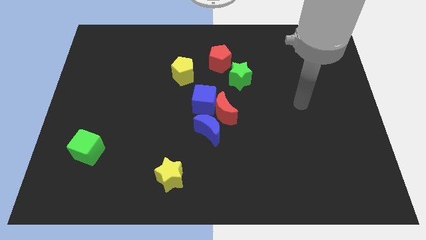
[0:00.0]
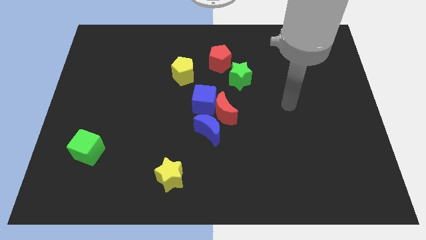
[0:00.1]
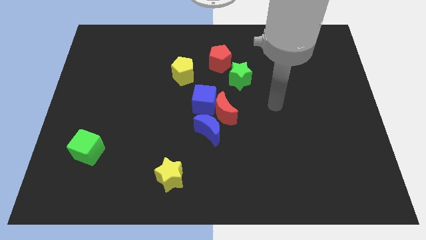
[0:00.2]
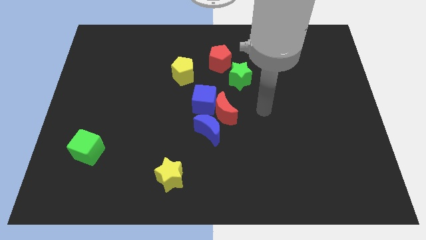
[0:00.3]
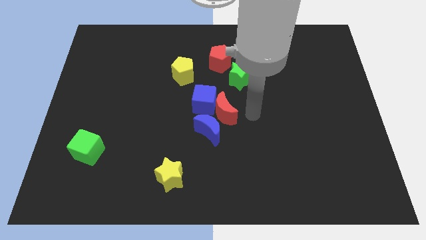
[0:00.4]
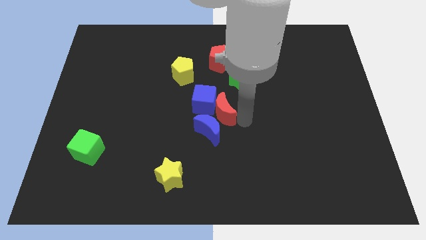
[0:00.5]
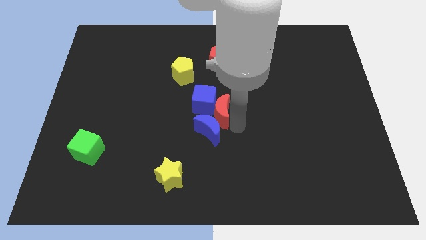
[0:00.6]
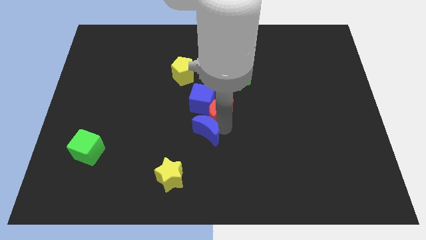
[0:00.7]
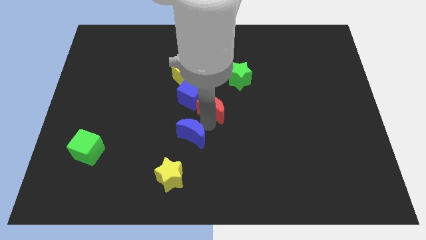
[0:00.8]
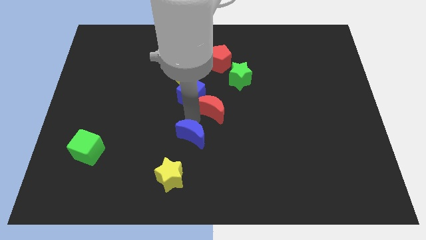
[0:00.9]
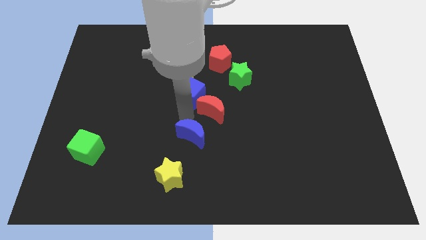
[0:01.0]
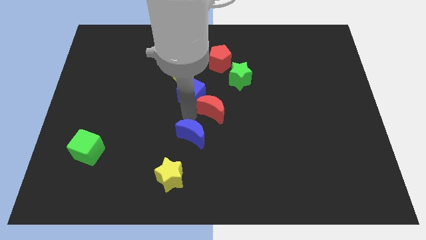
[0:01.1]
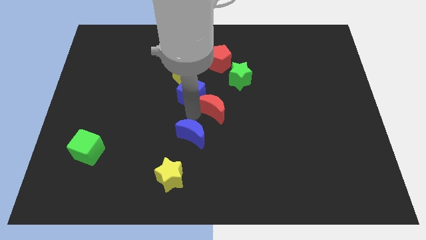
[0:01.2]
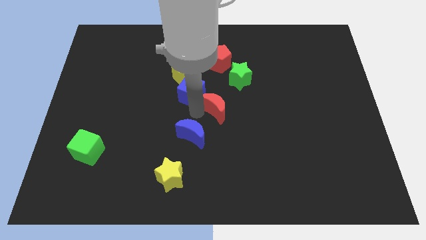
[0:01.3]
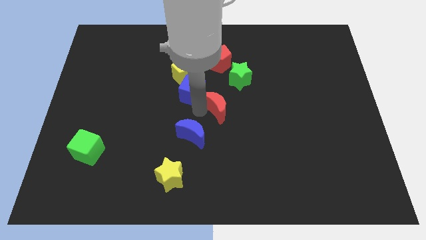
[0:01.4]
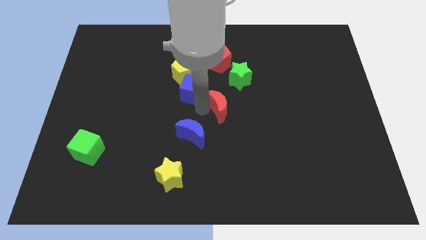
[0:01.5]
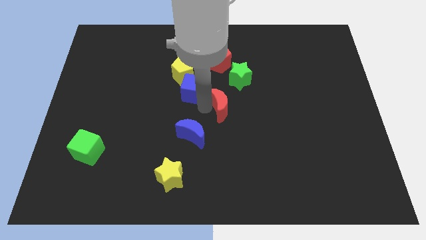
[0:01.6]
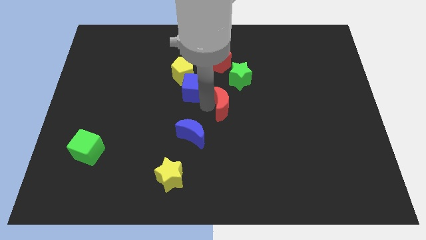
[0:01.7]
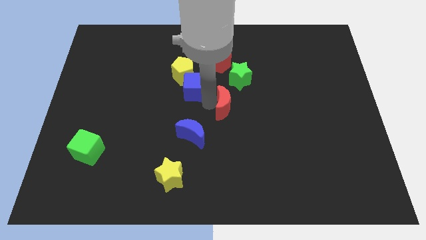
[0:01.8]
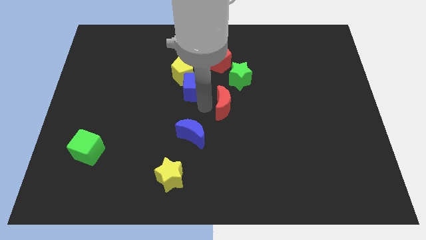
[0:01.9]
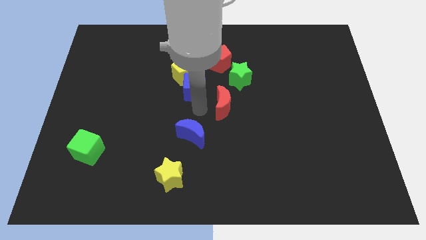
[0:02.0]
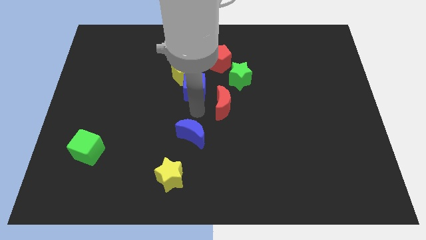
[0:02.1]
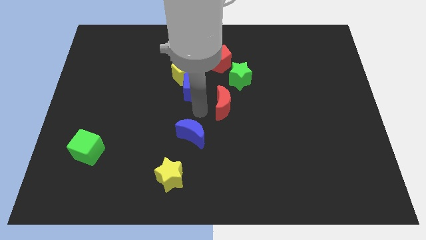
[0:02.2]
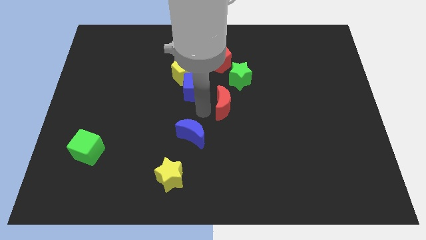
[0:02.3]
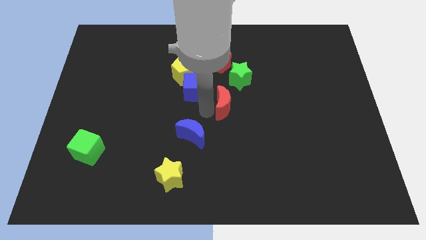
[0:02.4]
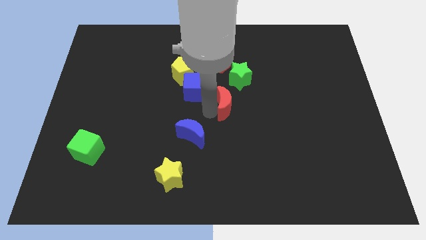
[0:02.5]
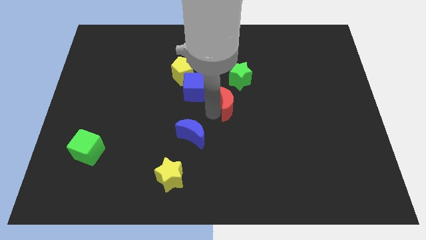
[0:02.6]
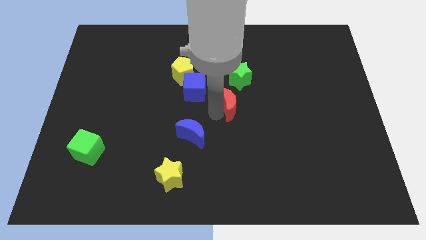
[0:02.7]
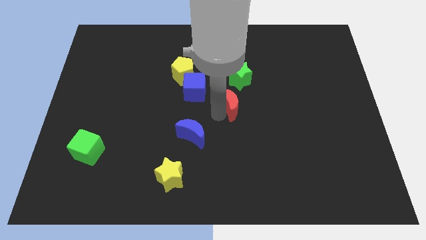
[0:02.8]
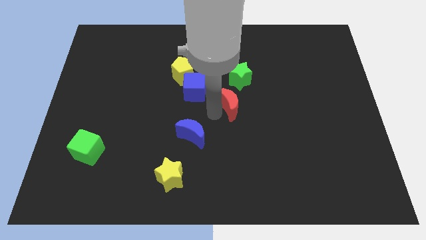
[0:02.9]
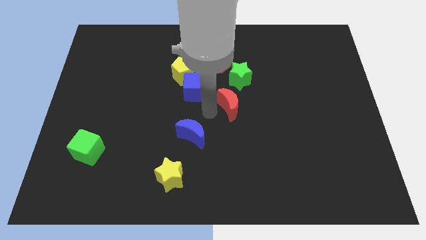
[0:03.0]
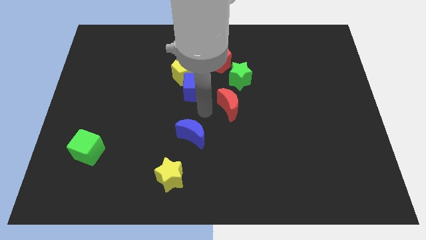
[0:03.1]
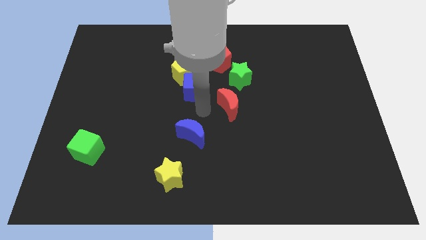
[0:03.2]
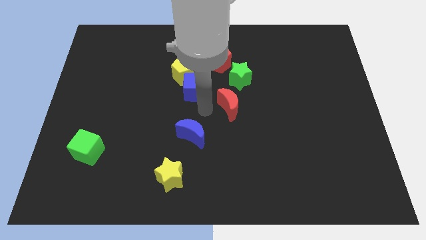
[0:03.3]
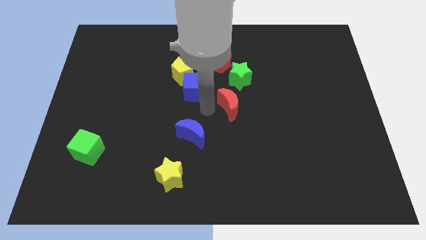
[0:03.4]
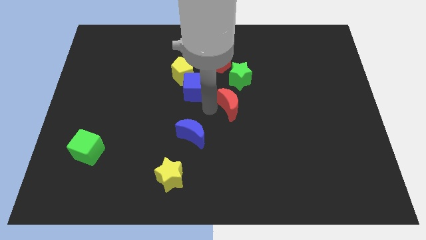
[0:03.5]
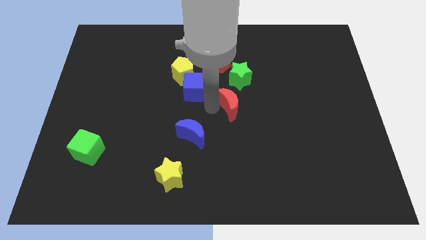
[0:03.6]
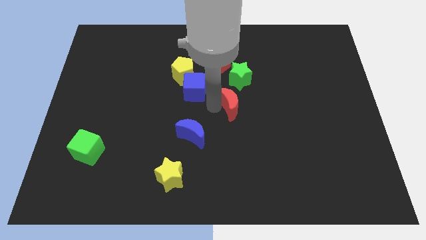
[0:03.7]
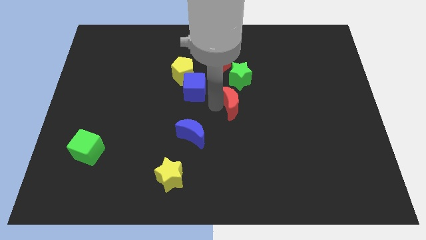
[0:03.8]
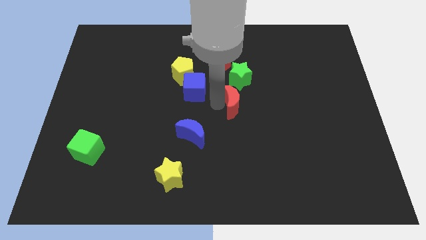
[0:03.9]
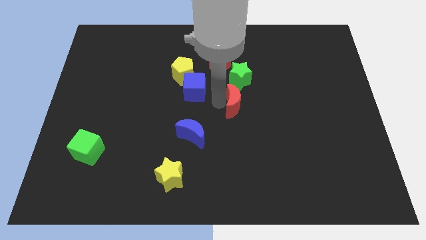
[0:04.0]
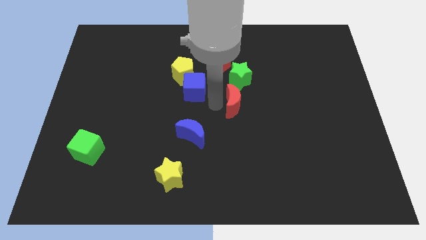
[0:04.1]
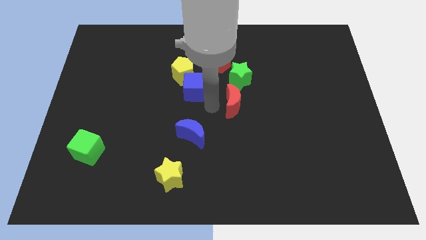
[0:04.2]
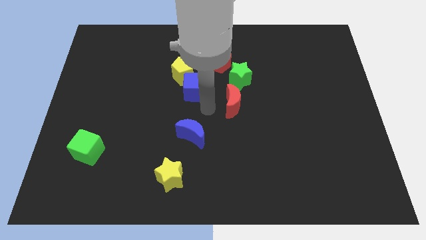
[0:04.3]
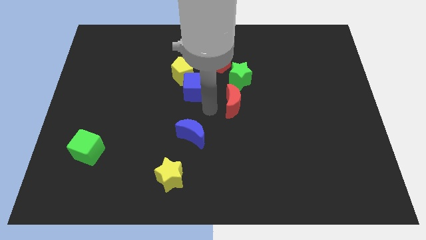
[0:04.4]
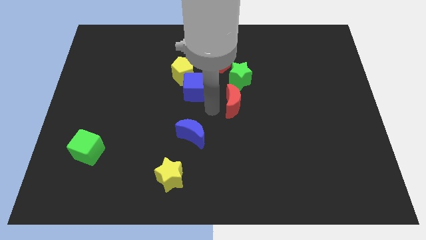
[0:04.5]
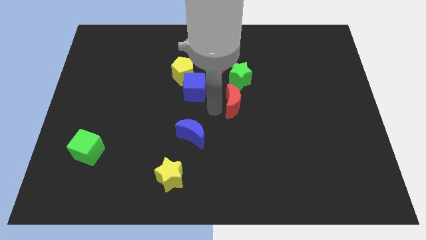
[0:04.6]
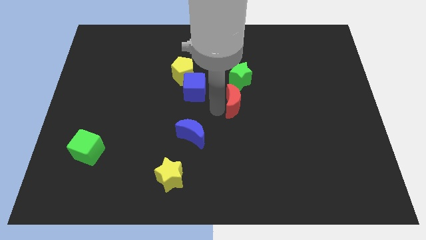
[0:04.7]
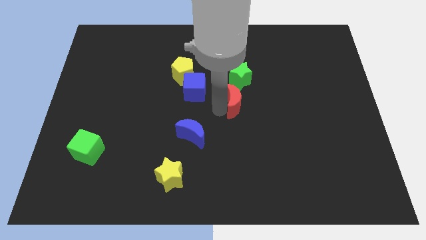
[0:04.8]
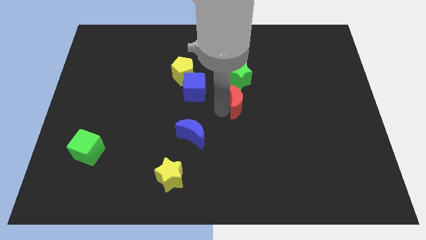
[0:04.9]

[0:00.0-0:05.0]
move the red moon away from the blue cube and blue moon

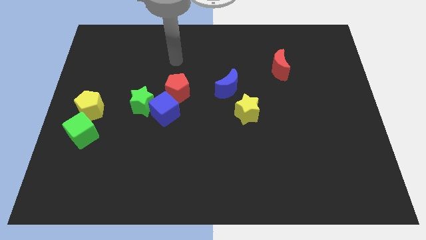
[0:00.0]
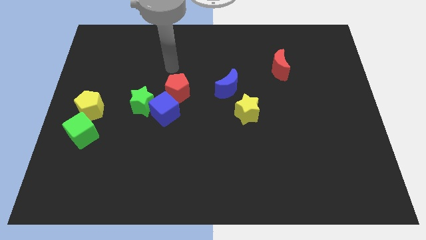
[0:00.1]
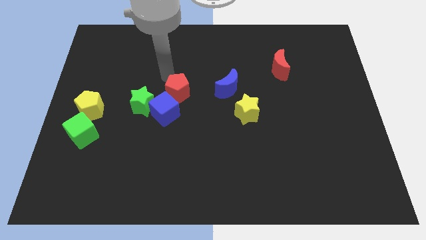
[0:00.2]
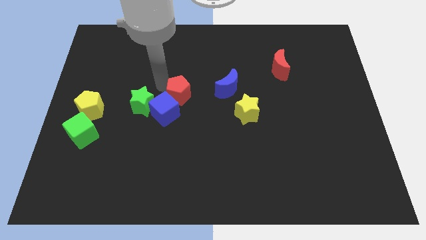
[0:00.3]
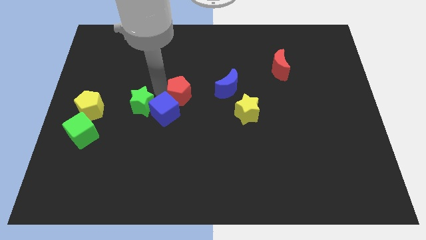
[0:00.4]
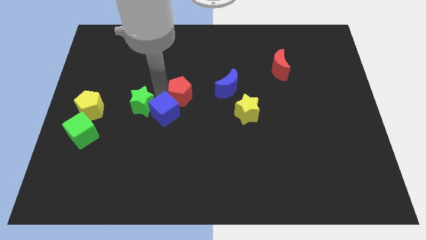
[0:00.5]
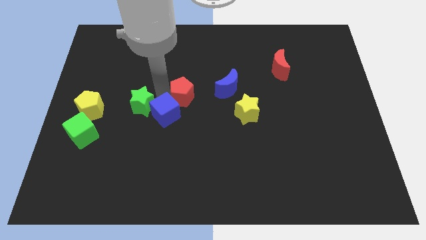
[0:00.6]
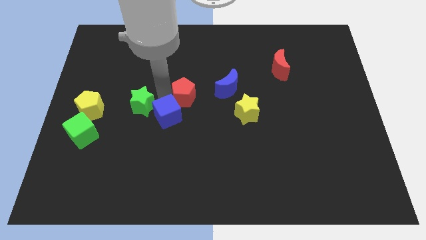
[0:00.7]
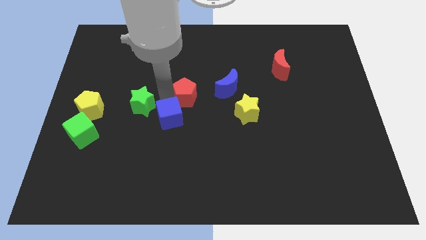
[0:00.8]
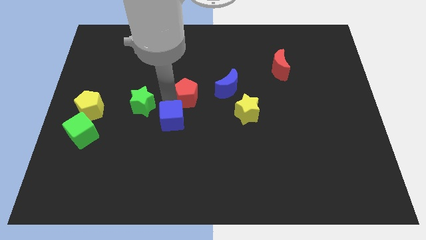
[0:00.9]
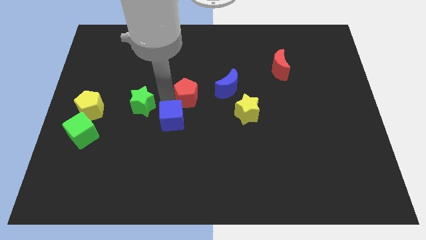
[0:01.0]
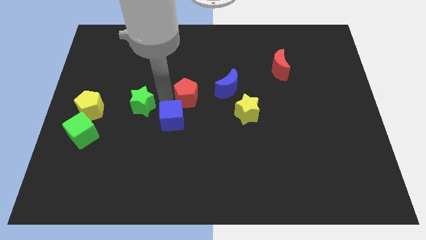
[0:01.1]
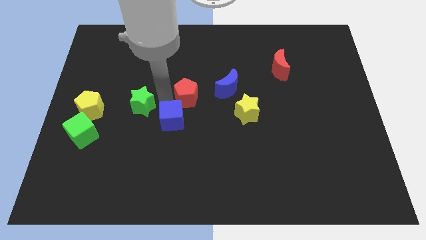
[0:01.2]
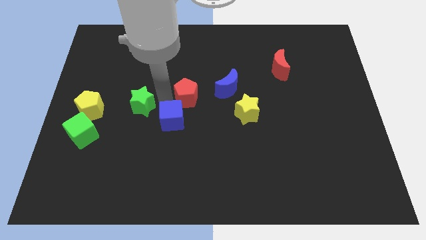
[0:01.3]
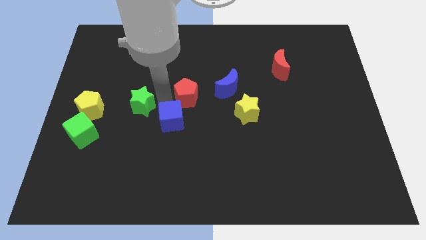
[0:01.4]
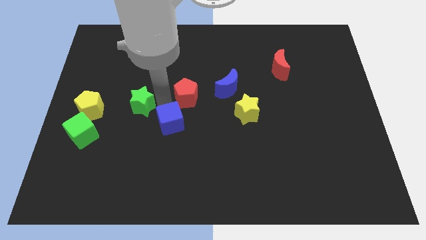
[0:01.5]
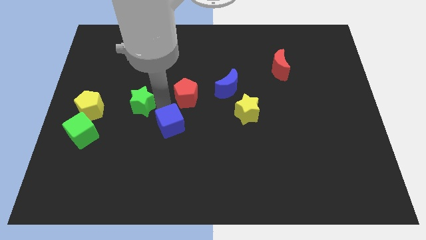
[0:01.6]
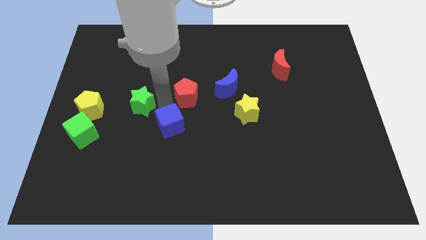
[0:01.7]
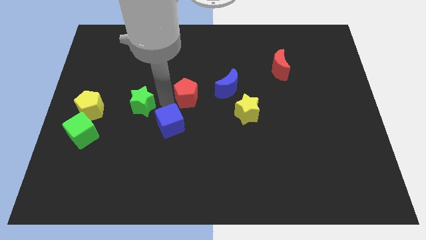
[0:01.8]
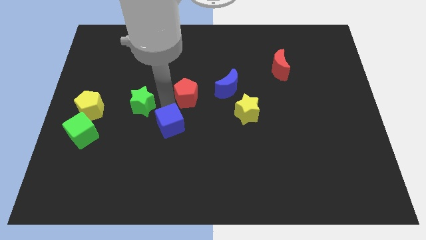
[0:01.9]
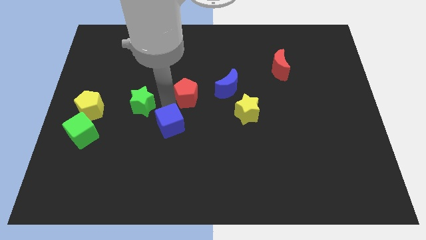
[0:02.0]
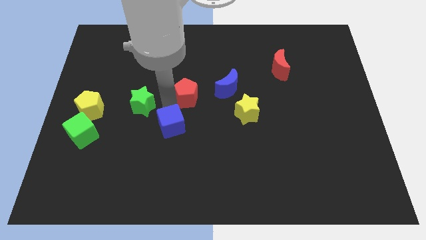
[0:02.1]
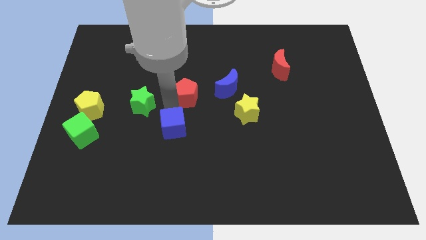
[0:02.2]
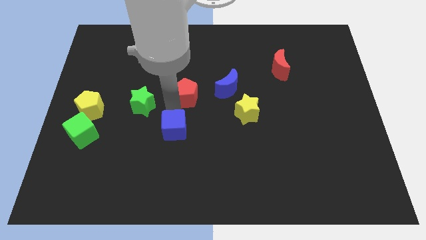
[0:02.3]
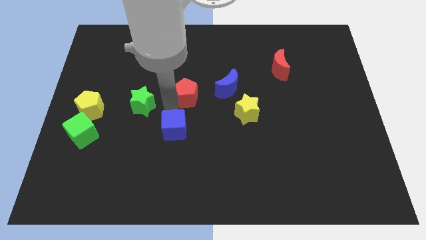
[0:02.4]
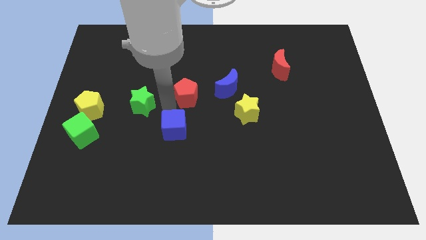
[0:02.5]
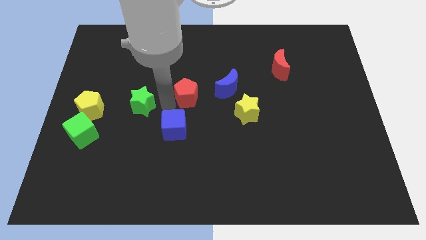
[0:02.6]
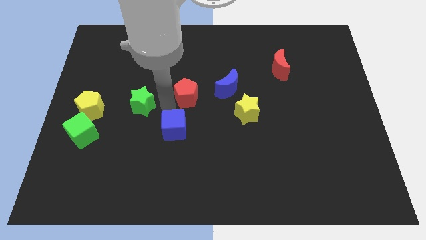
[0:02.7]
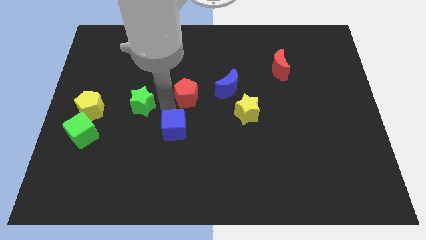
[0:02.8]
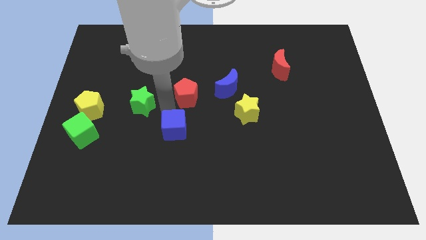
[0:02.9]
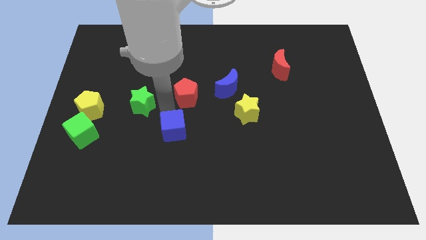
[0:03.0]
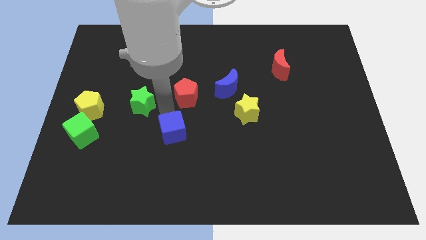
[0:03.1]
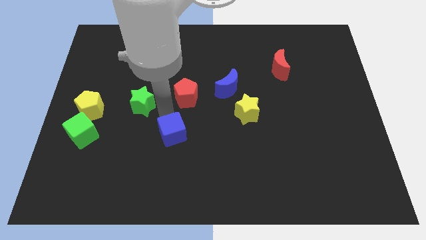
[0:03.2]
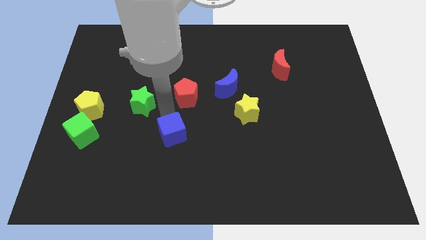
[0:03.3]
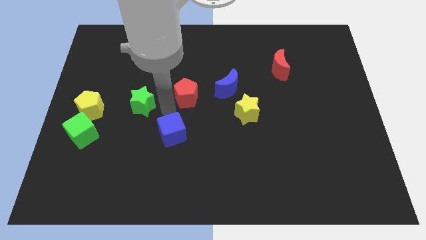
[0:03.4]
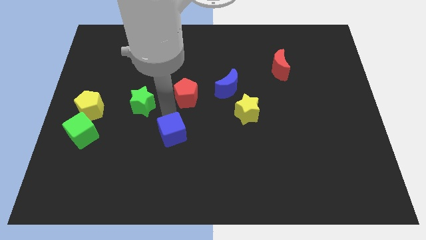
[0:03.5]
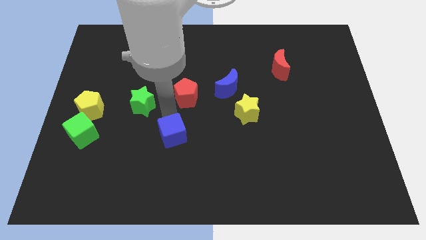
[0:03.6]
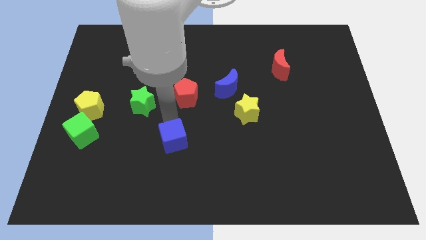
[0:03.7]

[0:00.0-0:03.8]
pull the blue cube apart from the green star and red pentagon

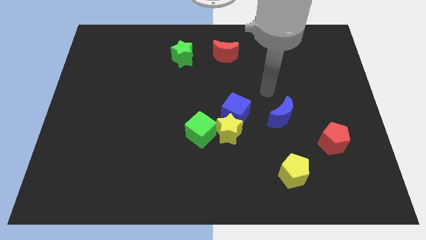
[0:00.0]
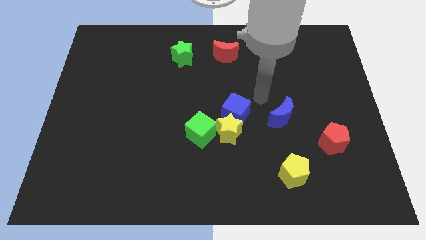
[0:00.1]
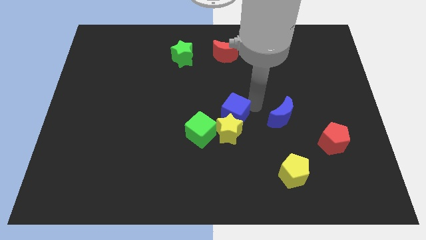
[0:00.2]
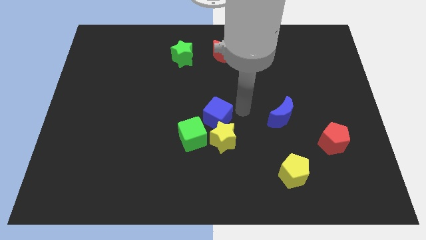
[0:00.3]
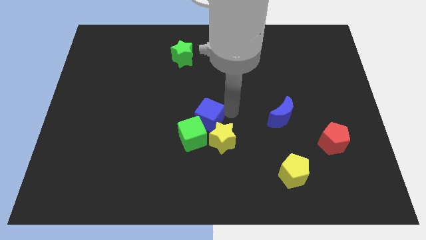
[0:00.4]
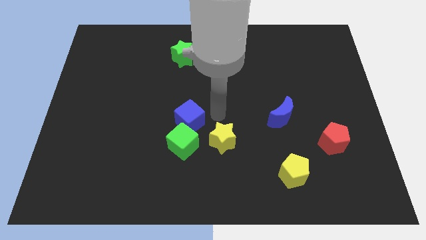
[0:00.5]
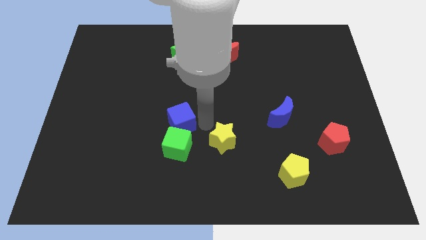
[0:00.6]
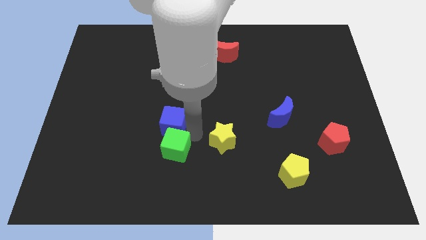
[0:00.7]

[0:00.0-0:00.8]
move the yellow star away from the blue cube and green cube
